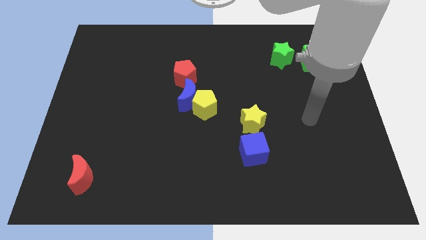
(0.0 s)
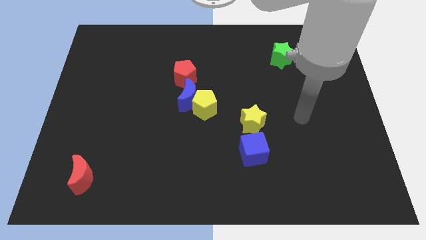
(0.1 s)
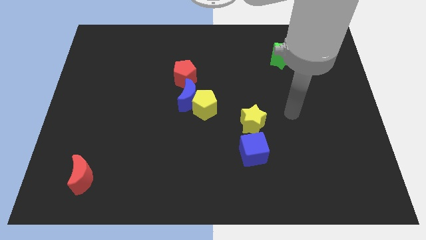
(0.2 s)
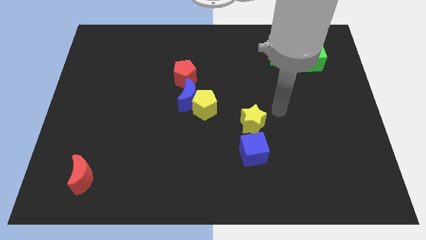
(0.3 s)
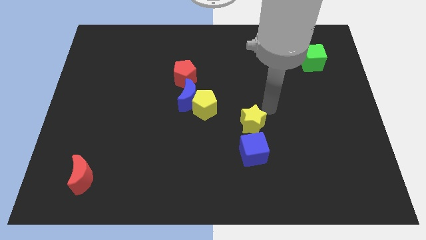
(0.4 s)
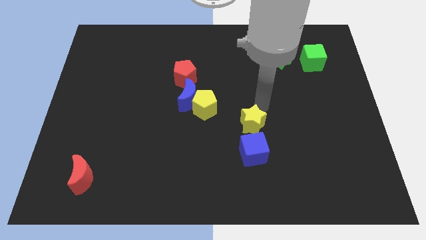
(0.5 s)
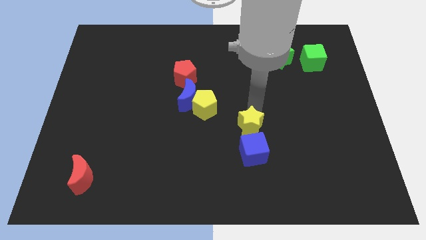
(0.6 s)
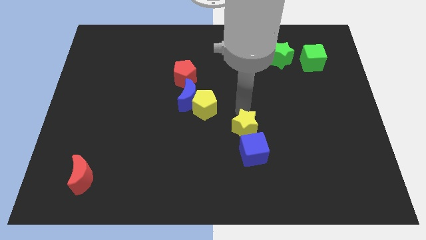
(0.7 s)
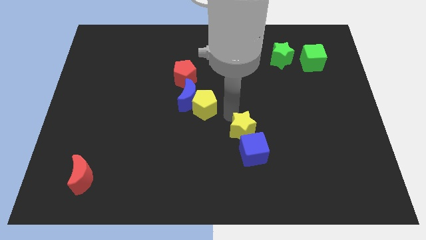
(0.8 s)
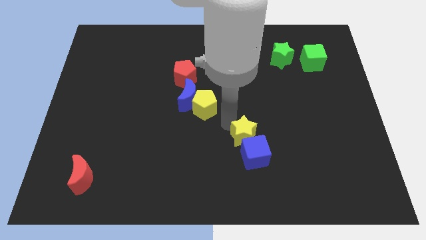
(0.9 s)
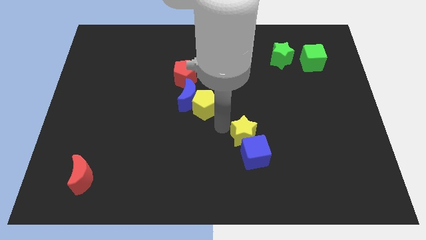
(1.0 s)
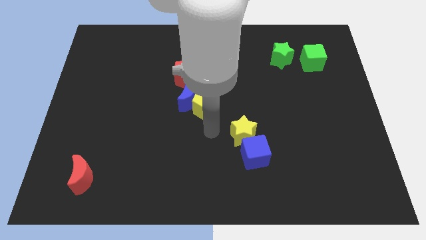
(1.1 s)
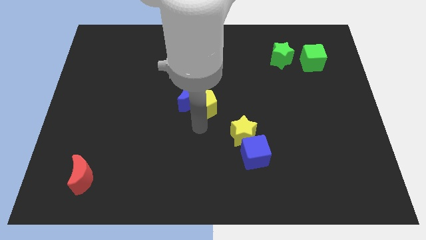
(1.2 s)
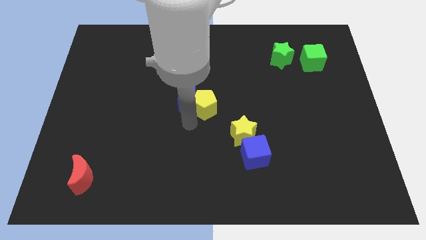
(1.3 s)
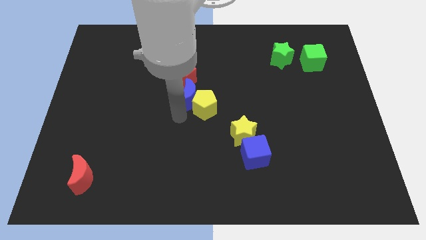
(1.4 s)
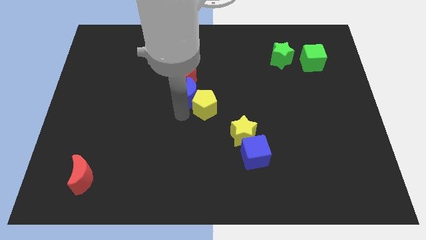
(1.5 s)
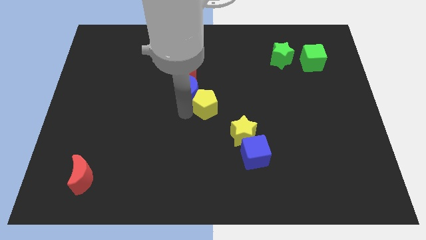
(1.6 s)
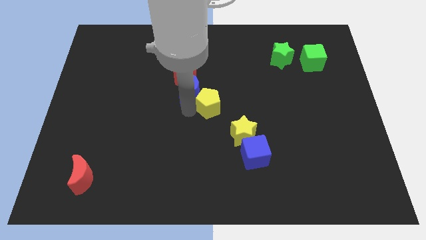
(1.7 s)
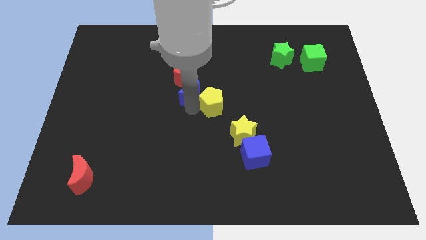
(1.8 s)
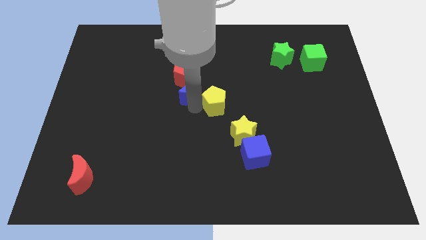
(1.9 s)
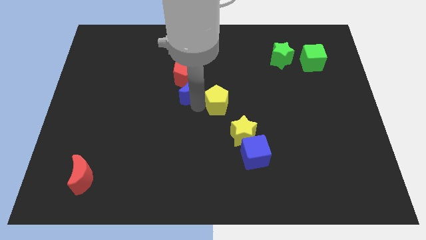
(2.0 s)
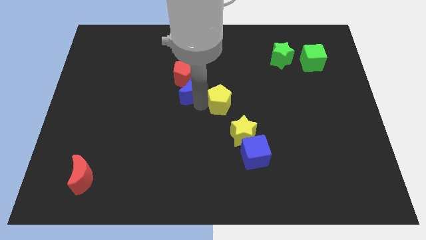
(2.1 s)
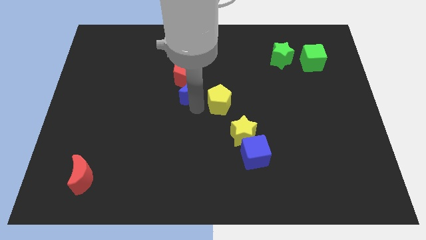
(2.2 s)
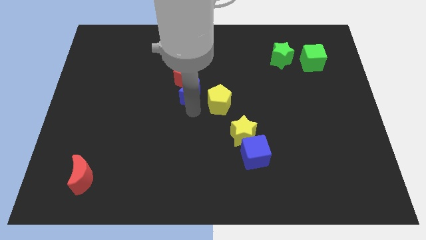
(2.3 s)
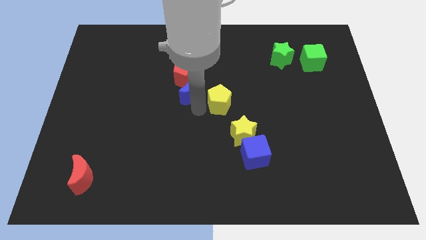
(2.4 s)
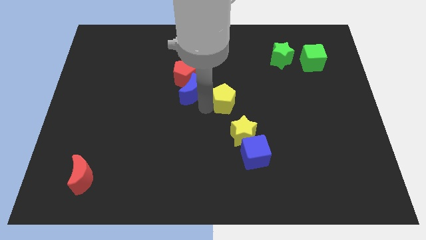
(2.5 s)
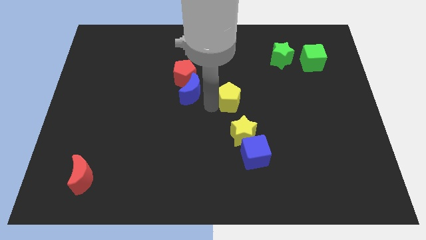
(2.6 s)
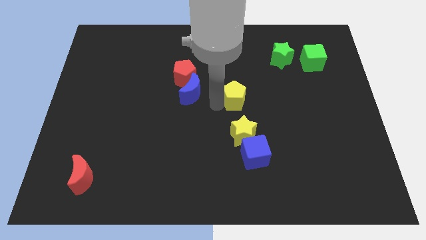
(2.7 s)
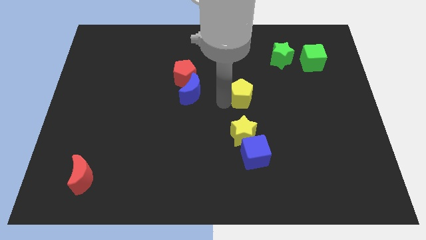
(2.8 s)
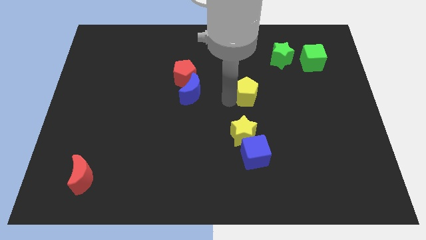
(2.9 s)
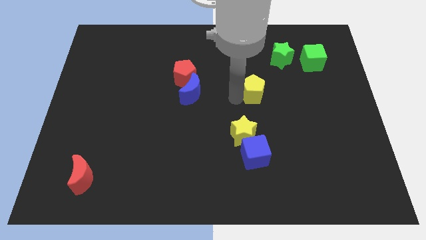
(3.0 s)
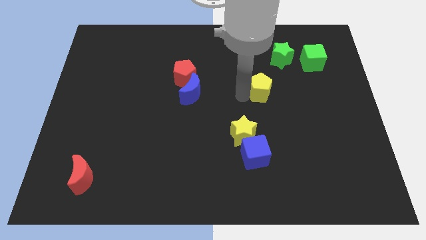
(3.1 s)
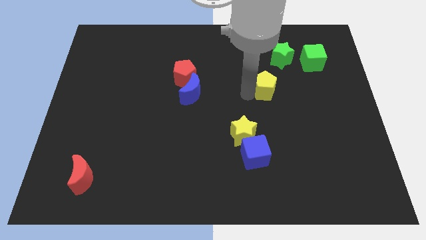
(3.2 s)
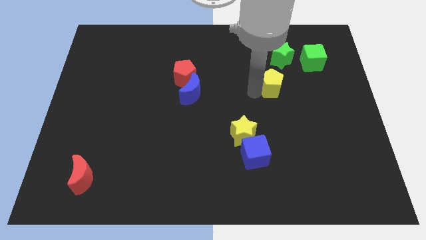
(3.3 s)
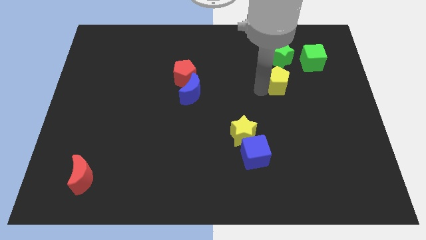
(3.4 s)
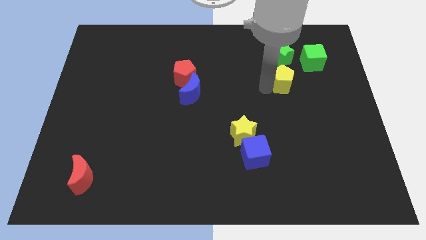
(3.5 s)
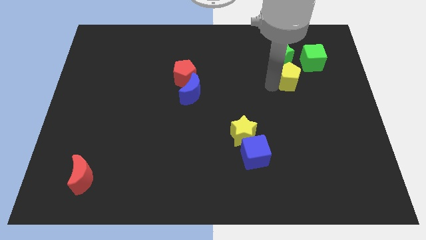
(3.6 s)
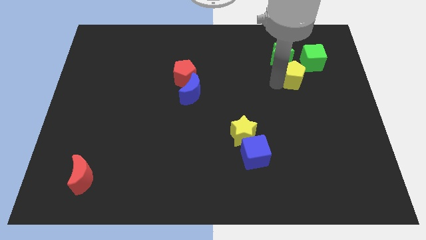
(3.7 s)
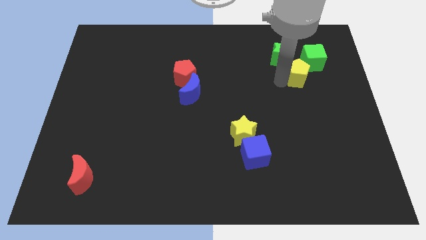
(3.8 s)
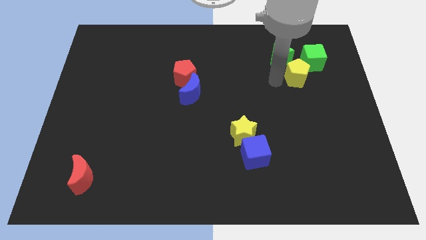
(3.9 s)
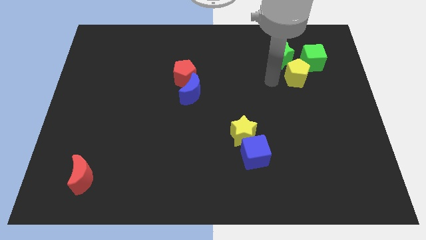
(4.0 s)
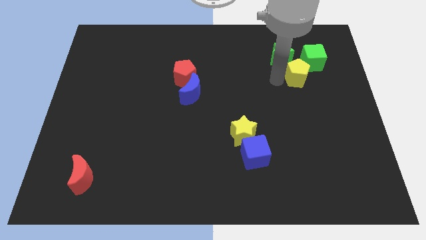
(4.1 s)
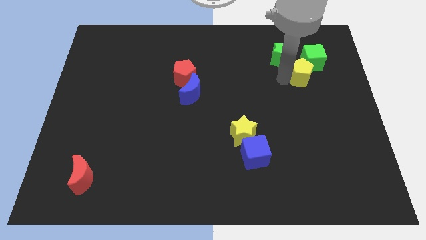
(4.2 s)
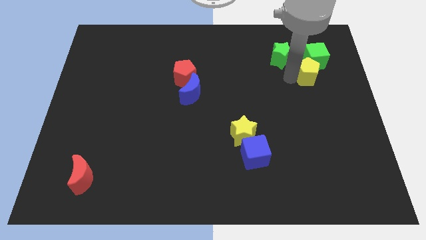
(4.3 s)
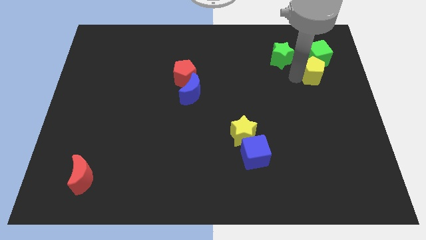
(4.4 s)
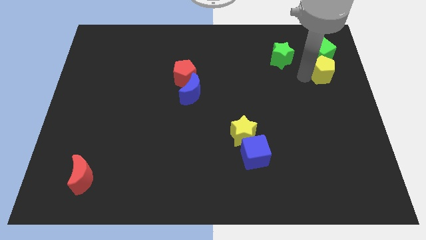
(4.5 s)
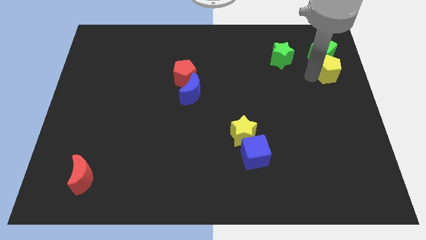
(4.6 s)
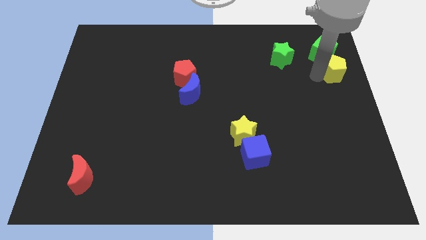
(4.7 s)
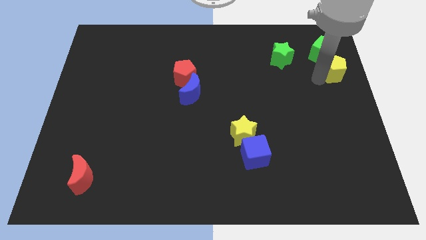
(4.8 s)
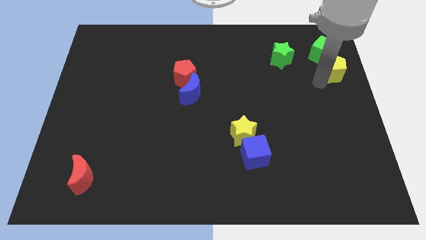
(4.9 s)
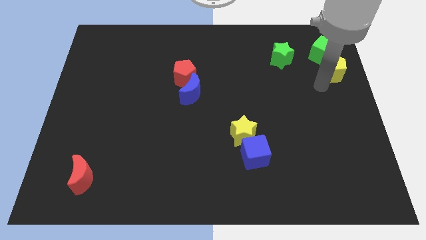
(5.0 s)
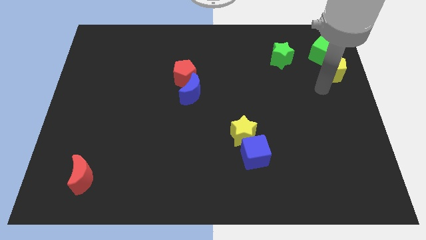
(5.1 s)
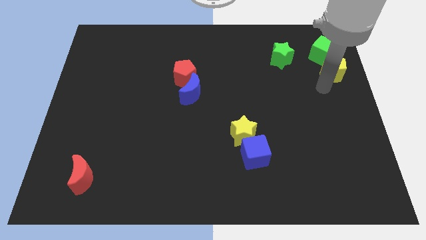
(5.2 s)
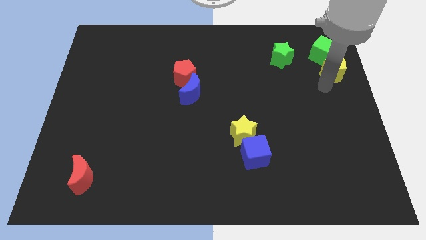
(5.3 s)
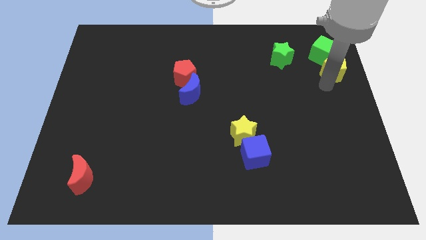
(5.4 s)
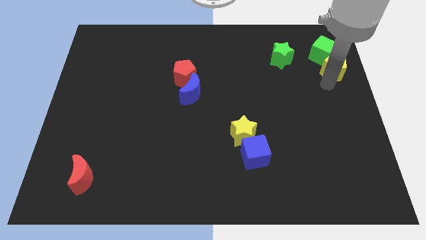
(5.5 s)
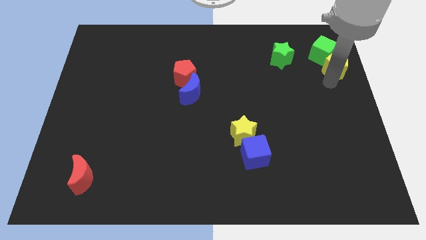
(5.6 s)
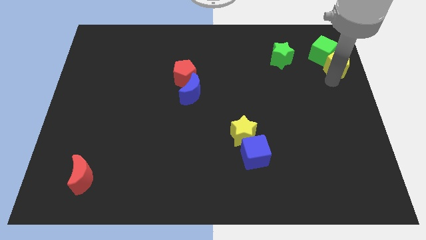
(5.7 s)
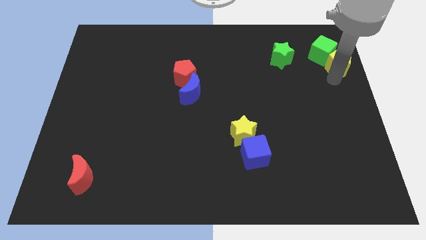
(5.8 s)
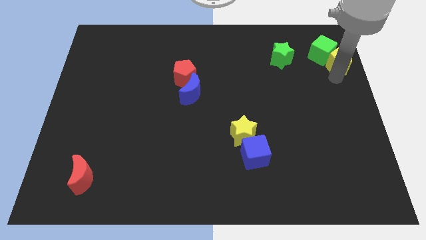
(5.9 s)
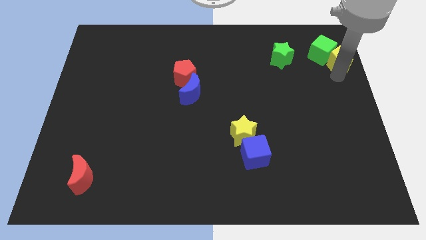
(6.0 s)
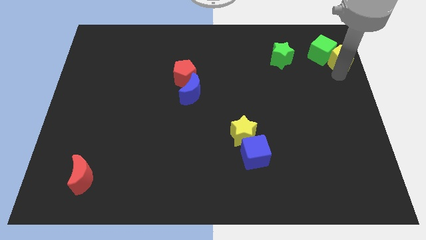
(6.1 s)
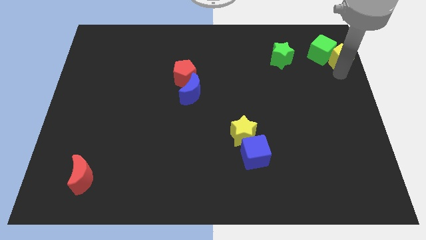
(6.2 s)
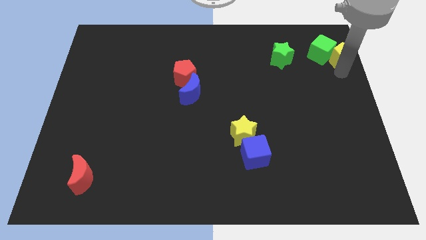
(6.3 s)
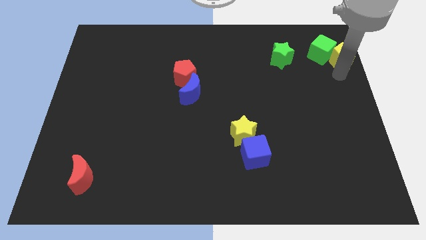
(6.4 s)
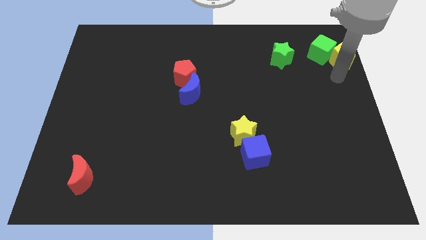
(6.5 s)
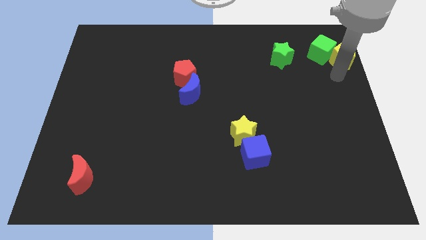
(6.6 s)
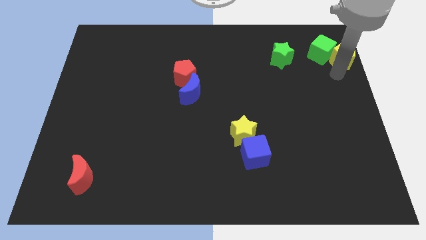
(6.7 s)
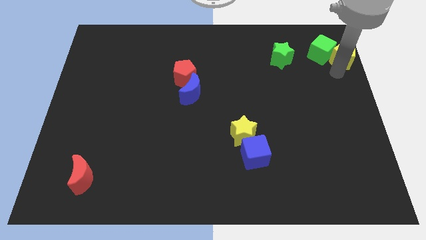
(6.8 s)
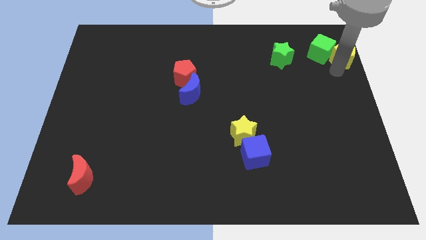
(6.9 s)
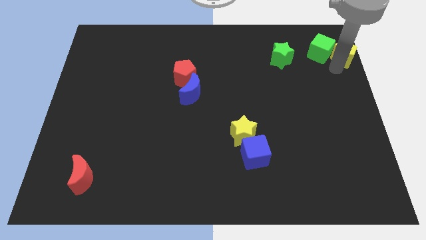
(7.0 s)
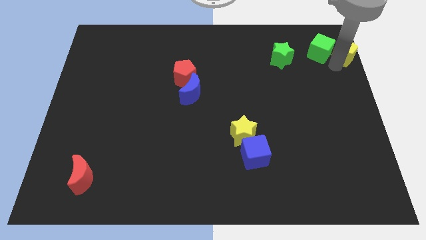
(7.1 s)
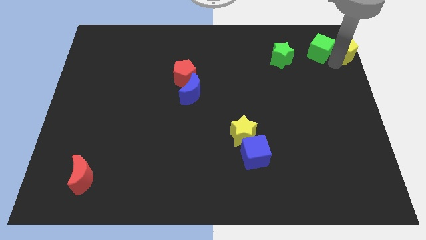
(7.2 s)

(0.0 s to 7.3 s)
slide the yellow pentagon to the top right of the board
